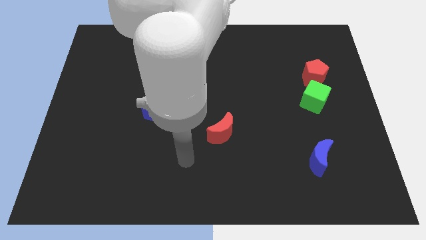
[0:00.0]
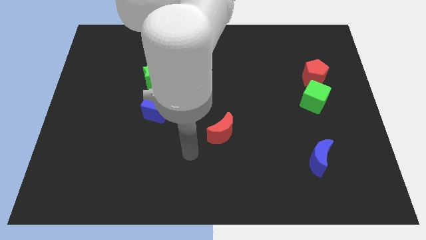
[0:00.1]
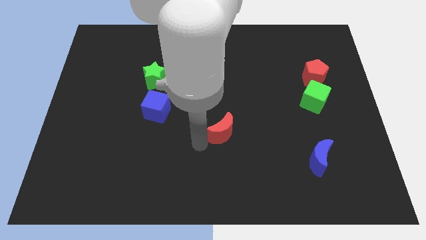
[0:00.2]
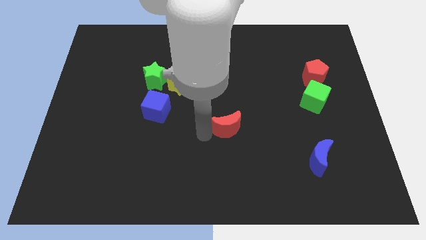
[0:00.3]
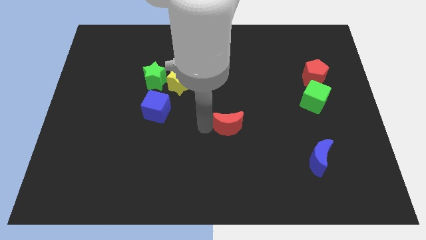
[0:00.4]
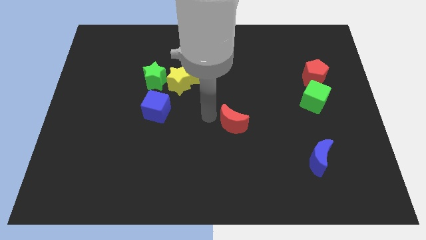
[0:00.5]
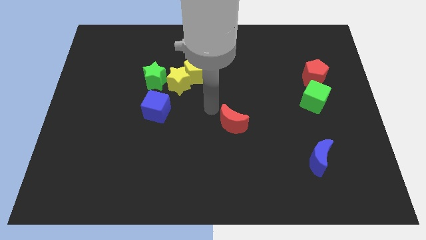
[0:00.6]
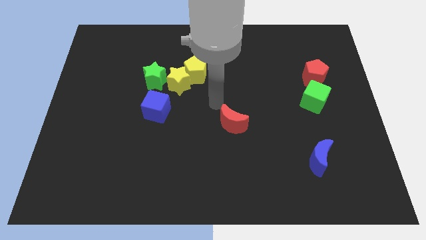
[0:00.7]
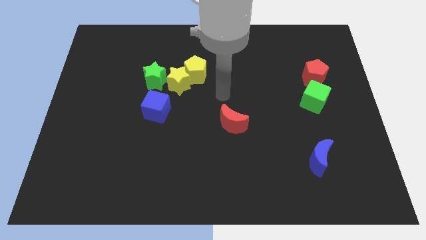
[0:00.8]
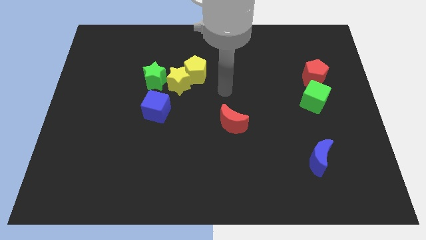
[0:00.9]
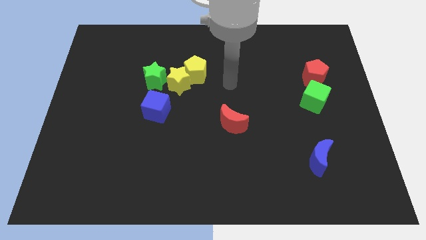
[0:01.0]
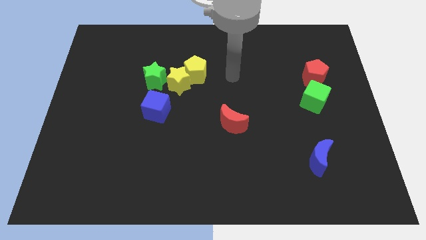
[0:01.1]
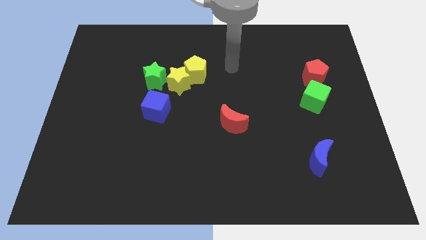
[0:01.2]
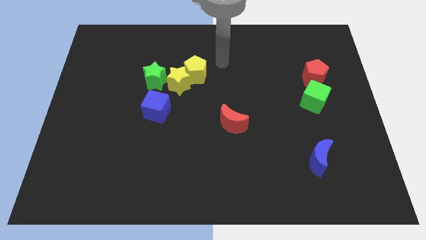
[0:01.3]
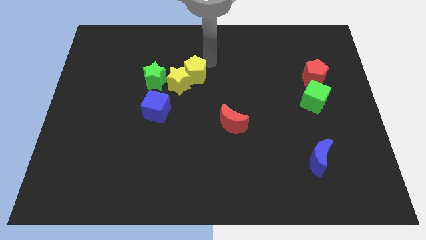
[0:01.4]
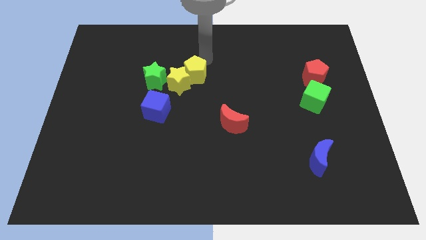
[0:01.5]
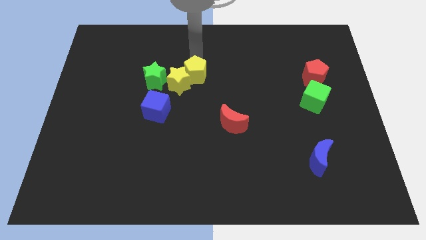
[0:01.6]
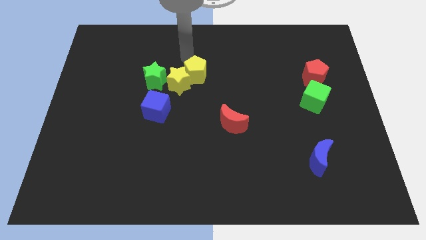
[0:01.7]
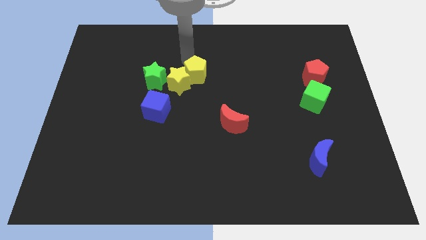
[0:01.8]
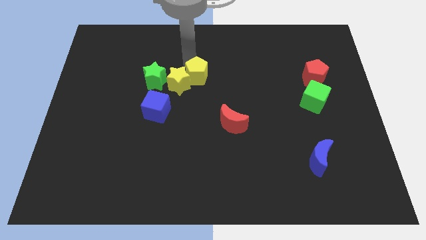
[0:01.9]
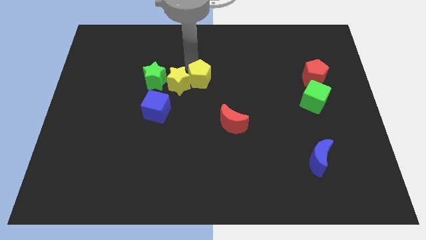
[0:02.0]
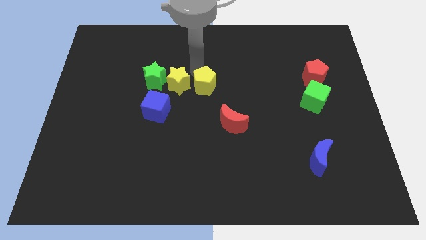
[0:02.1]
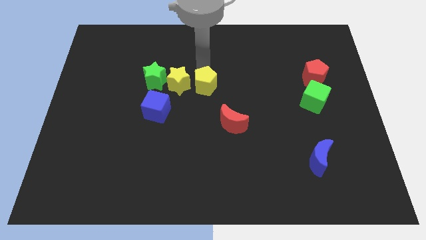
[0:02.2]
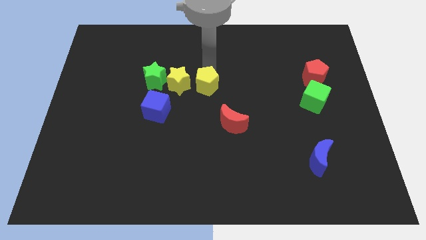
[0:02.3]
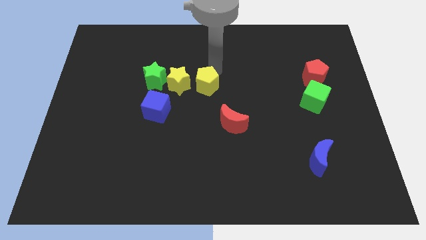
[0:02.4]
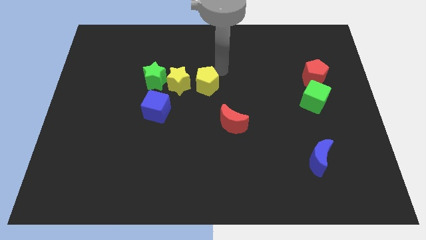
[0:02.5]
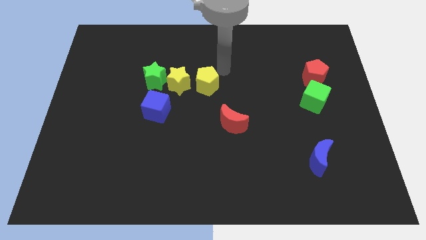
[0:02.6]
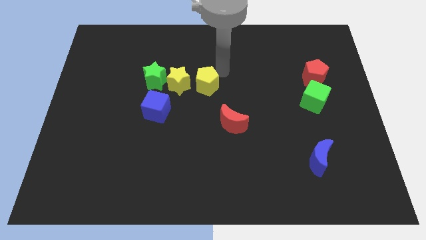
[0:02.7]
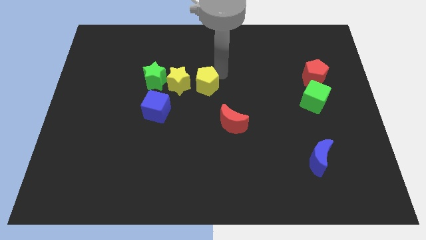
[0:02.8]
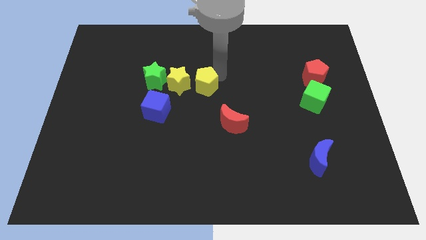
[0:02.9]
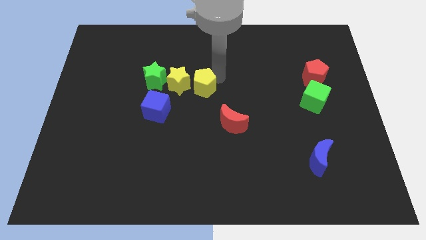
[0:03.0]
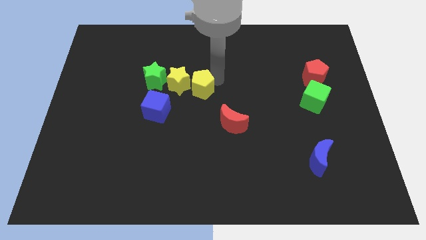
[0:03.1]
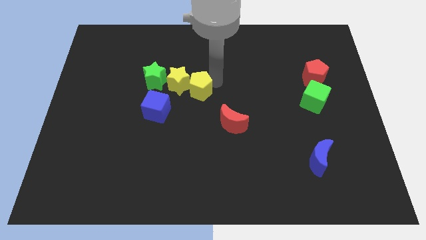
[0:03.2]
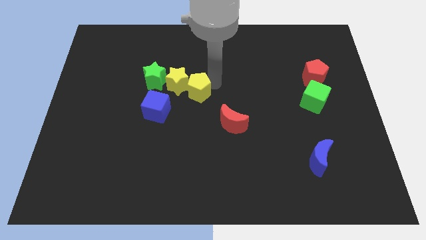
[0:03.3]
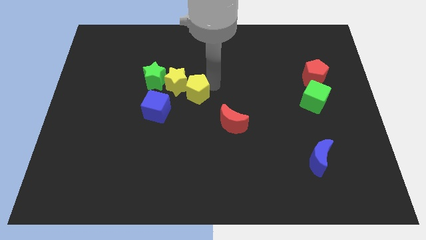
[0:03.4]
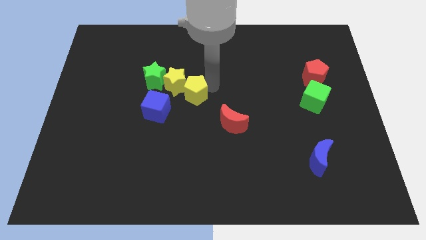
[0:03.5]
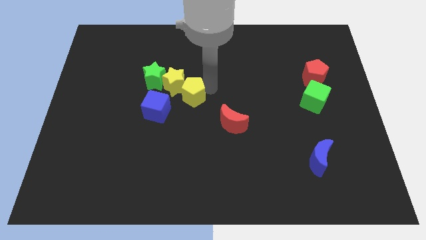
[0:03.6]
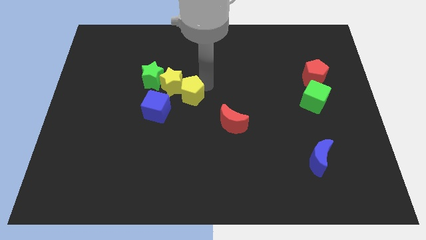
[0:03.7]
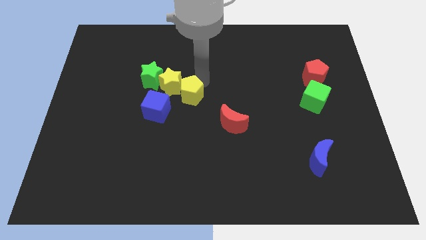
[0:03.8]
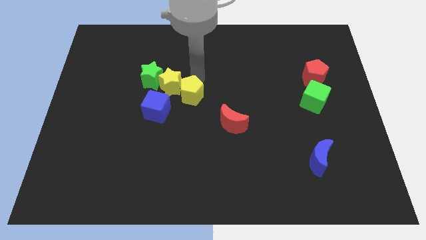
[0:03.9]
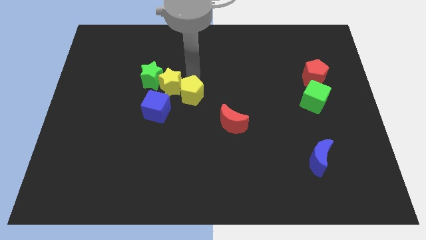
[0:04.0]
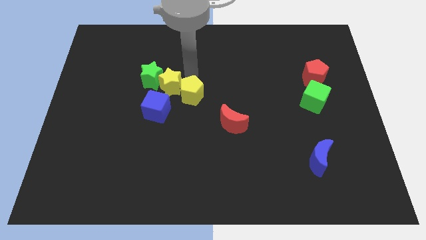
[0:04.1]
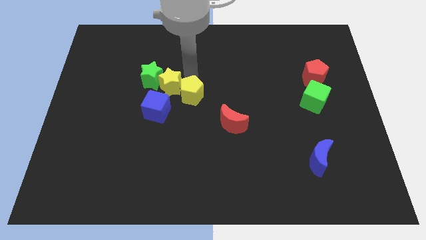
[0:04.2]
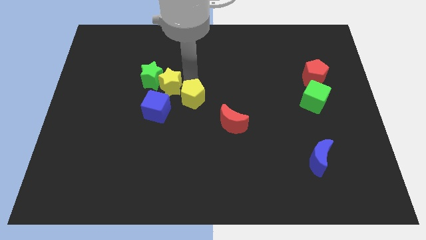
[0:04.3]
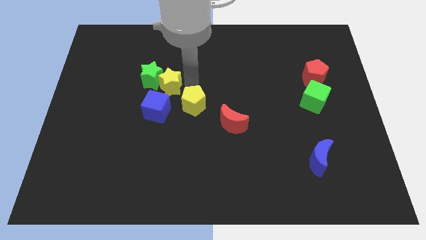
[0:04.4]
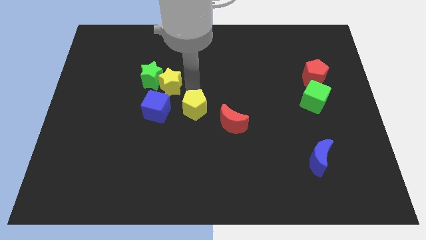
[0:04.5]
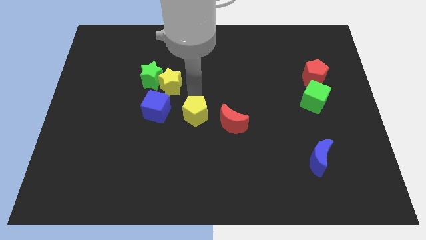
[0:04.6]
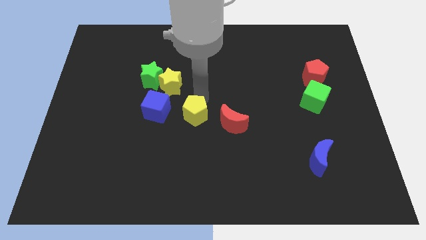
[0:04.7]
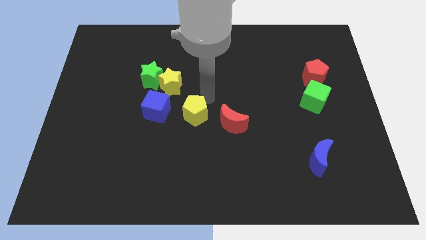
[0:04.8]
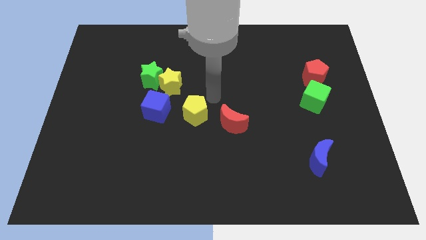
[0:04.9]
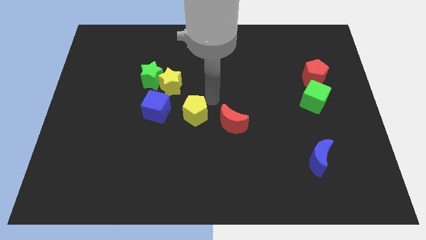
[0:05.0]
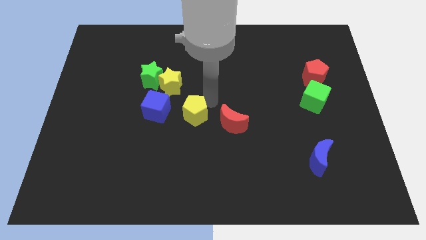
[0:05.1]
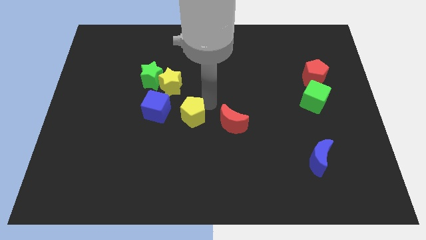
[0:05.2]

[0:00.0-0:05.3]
put the yellow pentagon to the bottom right side of the blue cube

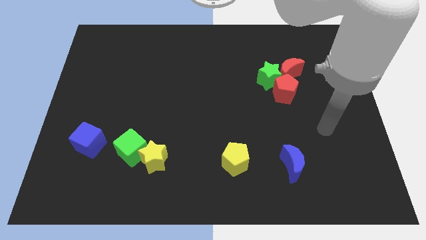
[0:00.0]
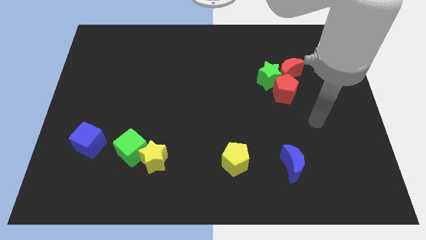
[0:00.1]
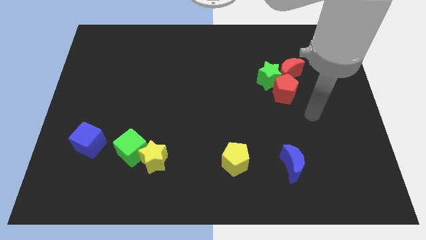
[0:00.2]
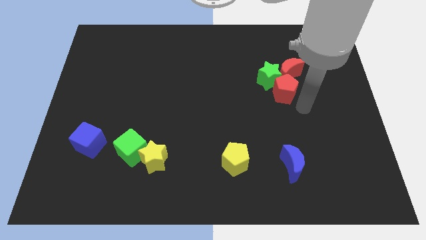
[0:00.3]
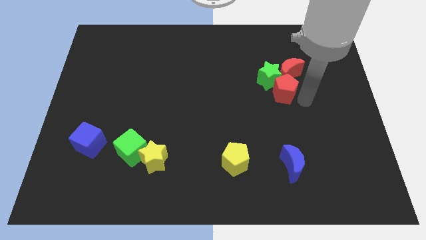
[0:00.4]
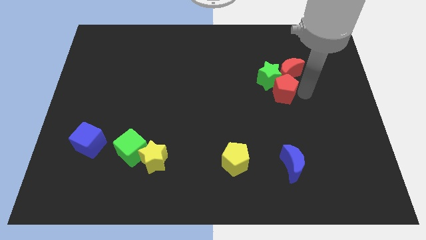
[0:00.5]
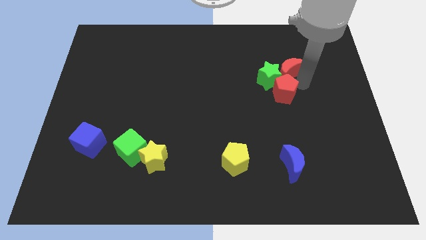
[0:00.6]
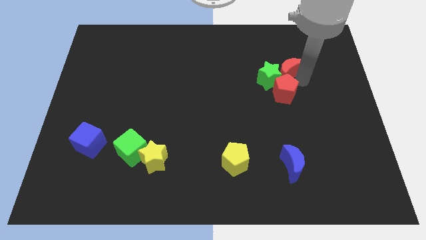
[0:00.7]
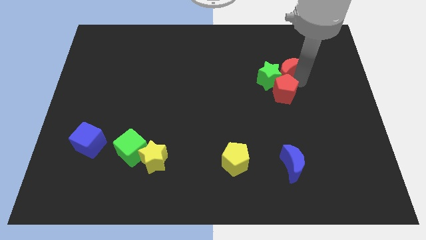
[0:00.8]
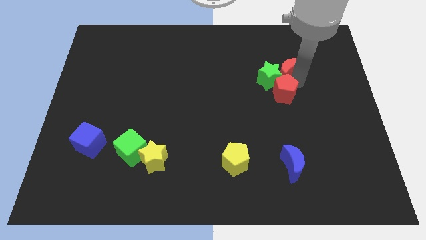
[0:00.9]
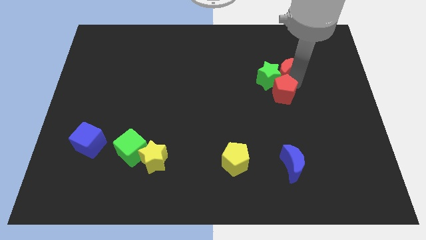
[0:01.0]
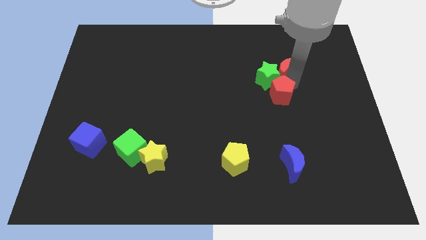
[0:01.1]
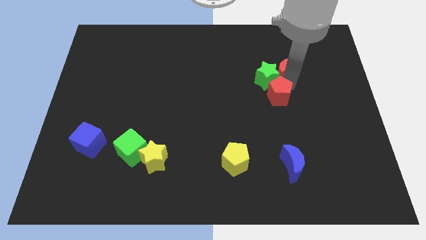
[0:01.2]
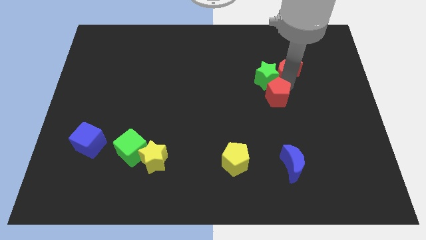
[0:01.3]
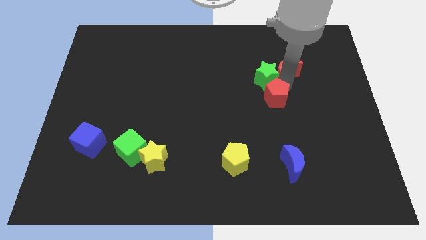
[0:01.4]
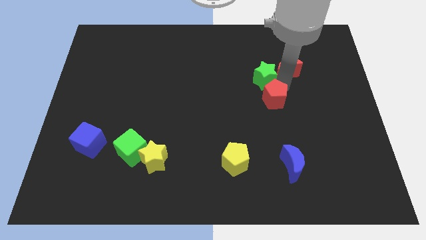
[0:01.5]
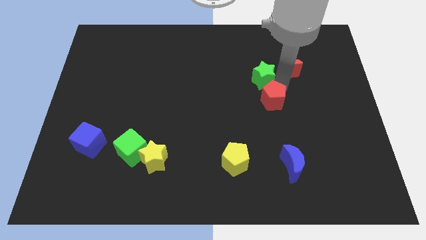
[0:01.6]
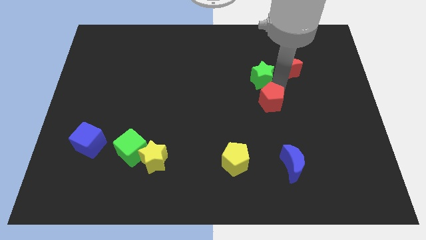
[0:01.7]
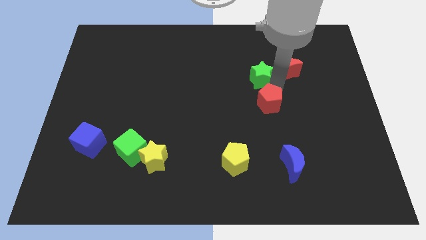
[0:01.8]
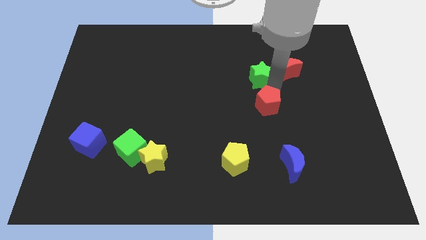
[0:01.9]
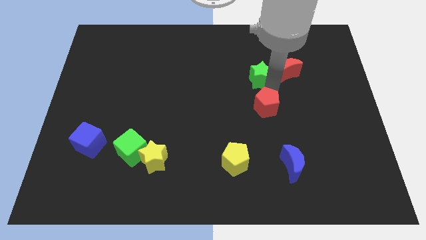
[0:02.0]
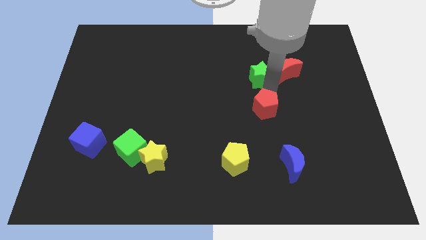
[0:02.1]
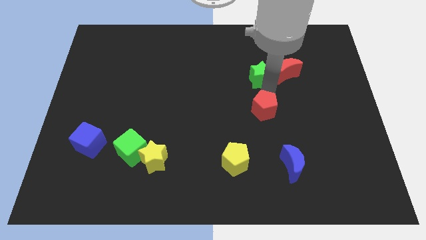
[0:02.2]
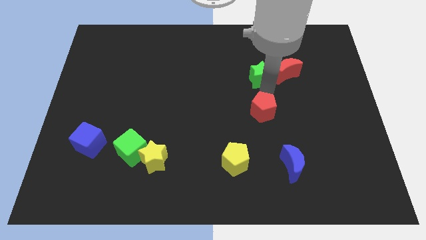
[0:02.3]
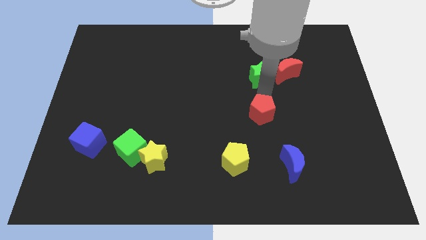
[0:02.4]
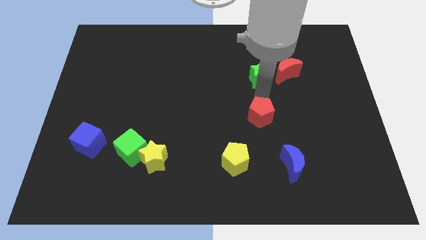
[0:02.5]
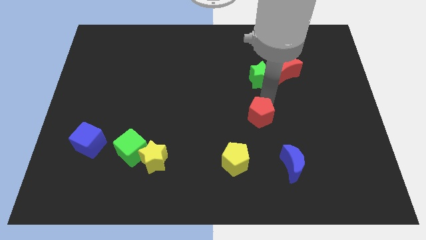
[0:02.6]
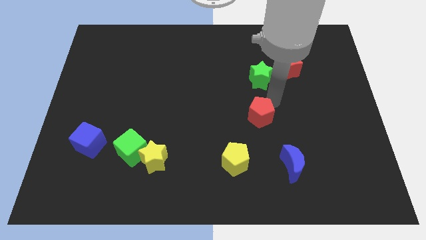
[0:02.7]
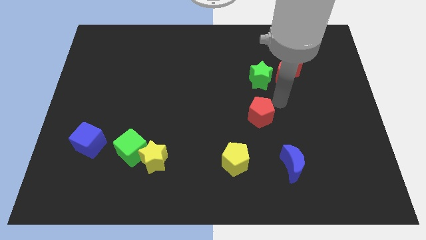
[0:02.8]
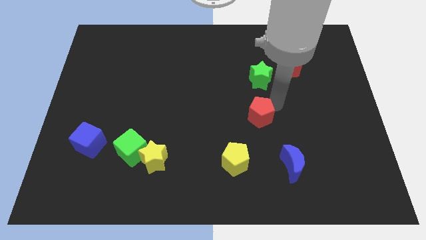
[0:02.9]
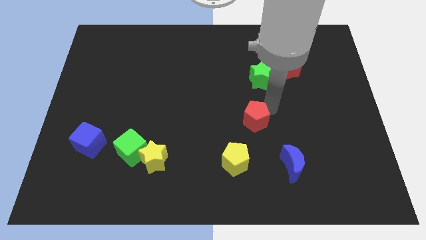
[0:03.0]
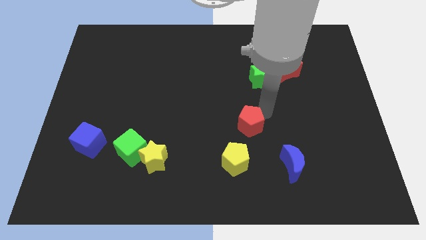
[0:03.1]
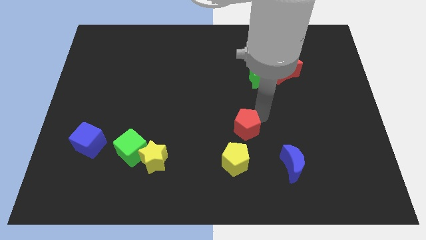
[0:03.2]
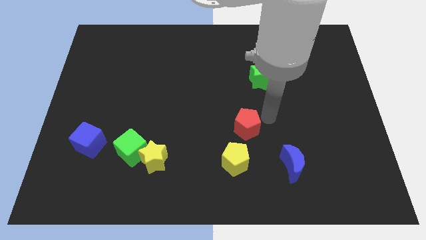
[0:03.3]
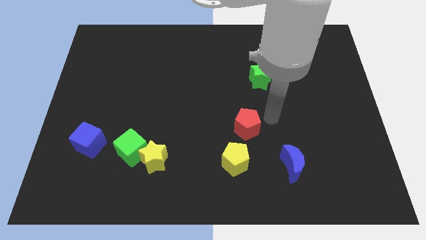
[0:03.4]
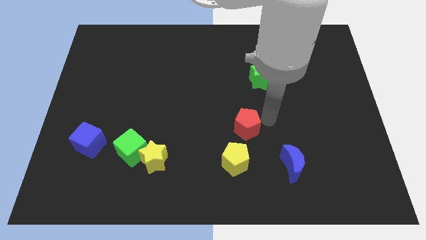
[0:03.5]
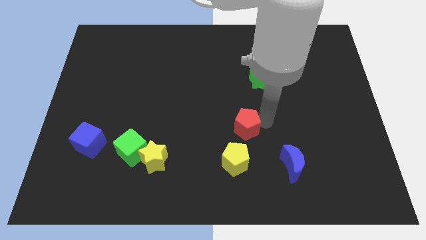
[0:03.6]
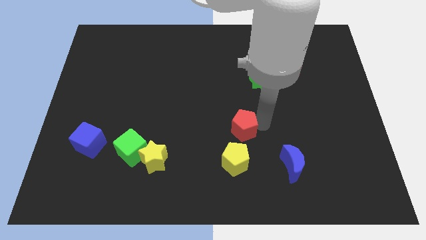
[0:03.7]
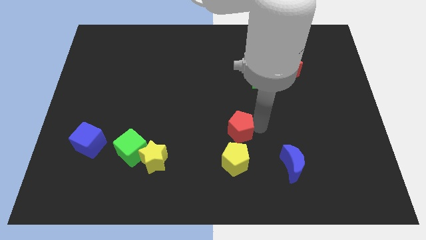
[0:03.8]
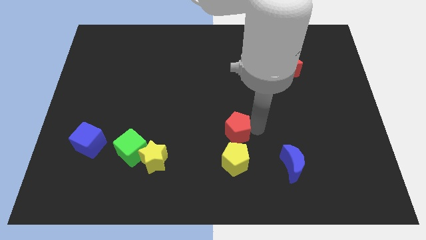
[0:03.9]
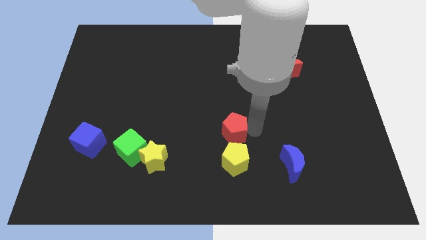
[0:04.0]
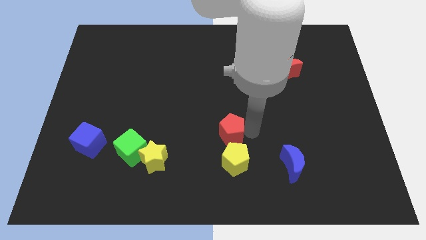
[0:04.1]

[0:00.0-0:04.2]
push the red pentagon to the top left of the yellow pentagon
